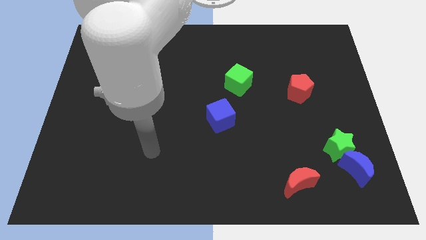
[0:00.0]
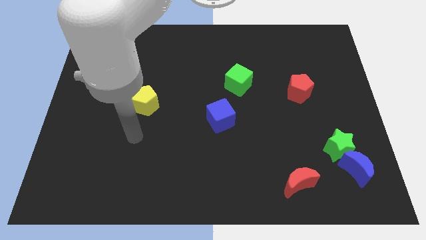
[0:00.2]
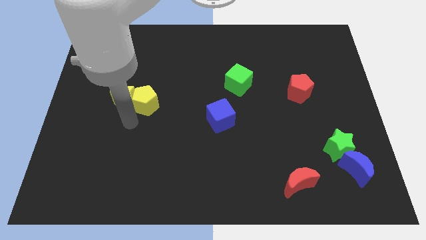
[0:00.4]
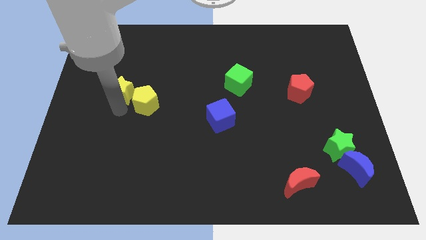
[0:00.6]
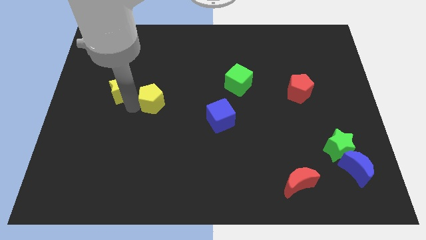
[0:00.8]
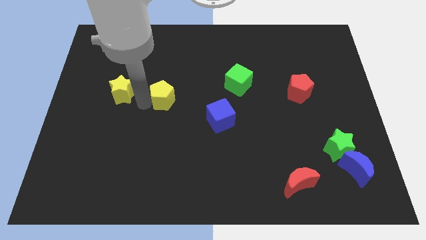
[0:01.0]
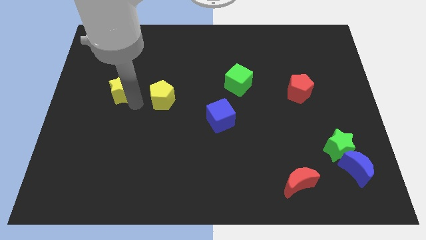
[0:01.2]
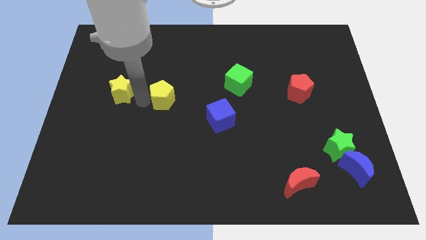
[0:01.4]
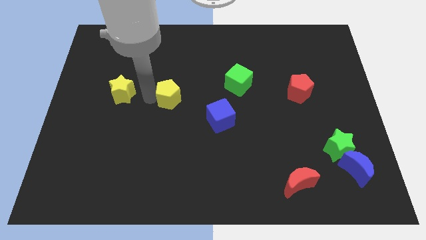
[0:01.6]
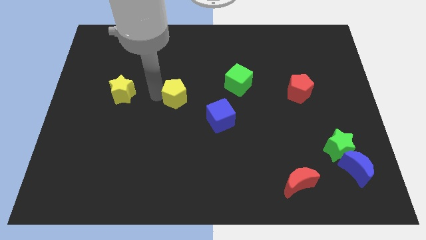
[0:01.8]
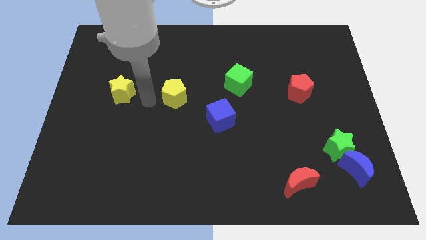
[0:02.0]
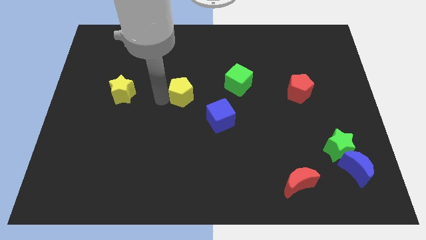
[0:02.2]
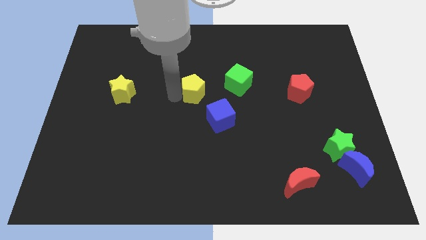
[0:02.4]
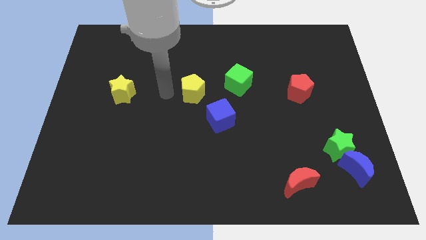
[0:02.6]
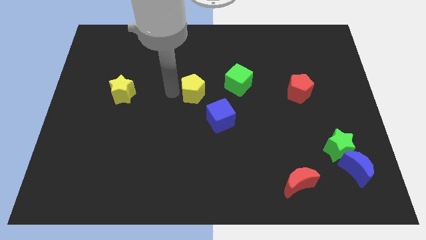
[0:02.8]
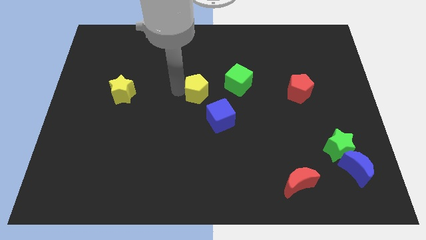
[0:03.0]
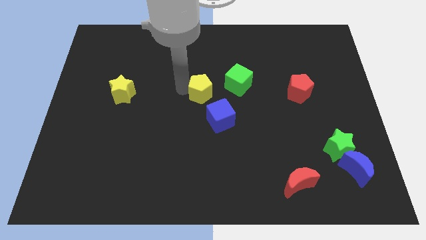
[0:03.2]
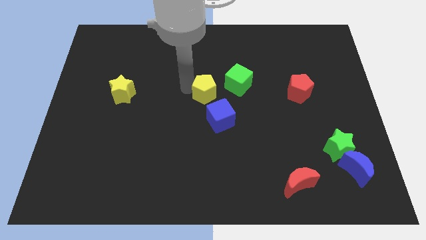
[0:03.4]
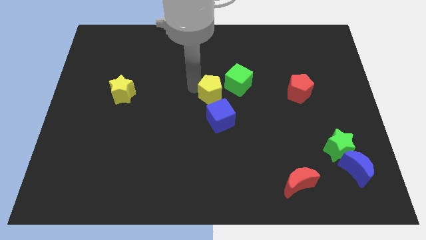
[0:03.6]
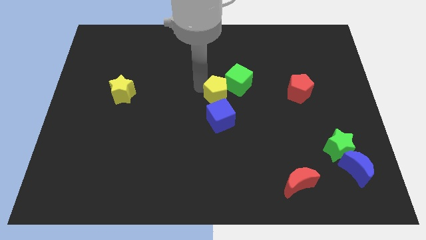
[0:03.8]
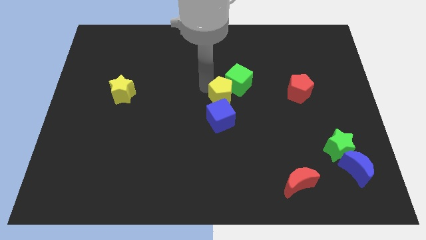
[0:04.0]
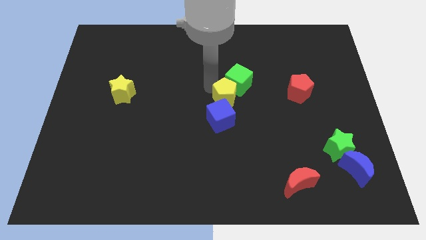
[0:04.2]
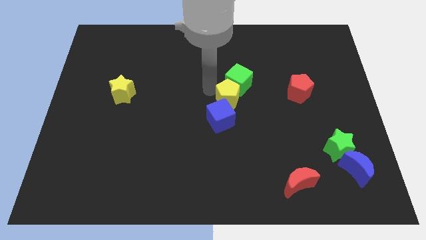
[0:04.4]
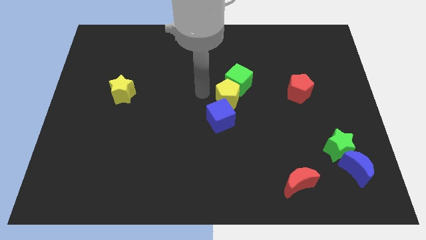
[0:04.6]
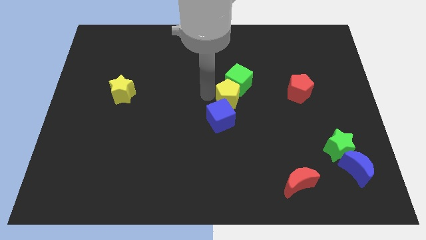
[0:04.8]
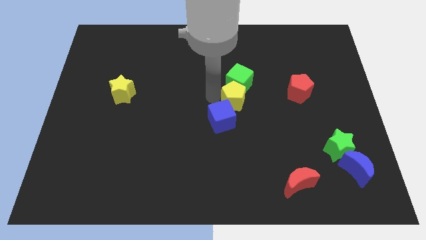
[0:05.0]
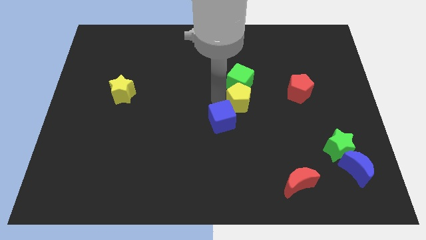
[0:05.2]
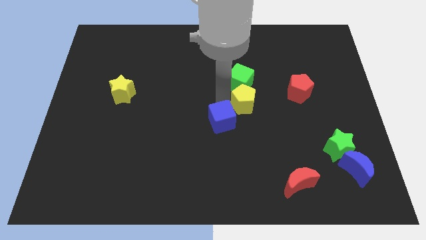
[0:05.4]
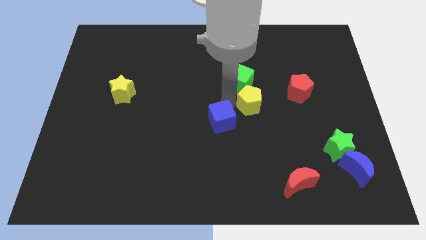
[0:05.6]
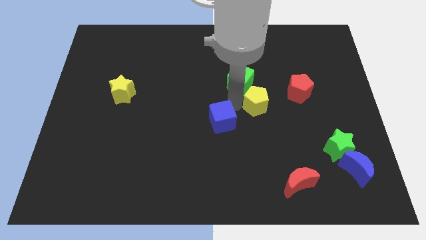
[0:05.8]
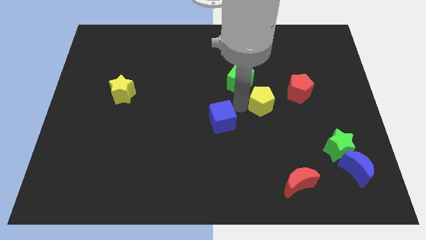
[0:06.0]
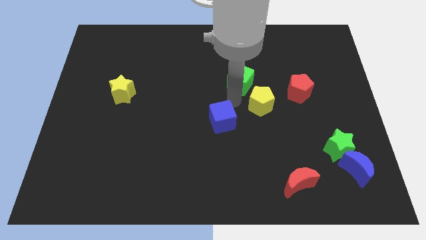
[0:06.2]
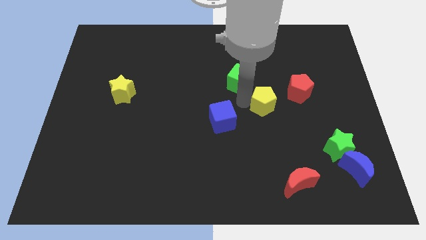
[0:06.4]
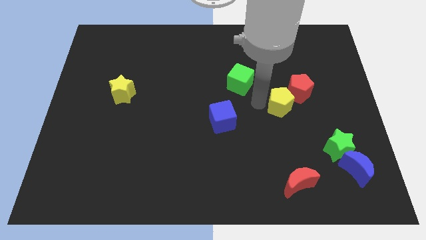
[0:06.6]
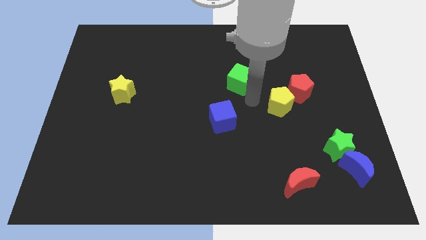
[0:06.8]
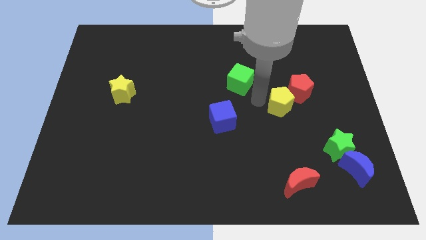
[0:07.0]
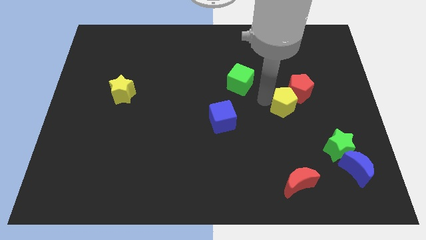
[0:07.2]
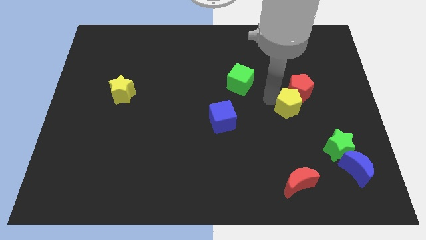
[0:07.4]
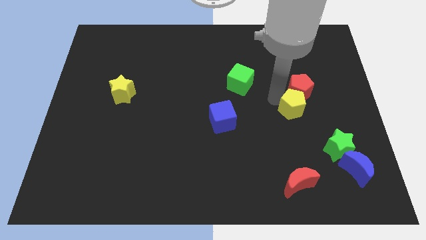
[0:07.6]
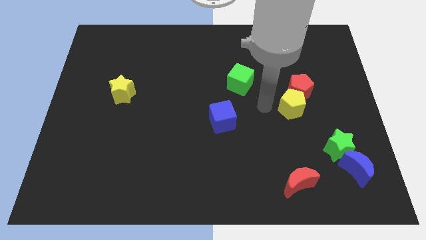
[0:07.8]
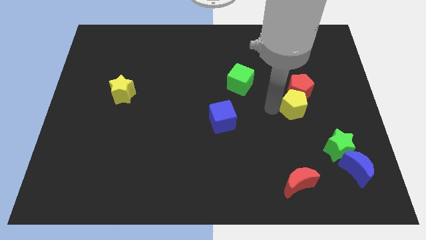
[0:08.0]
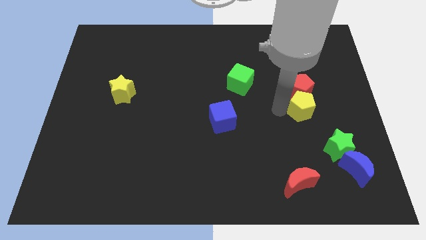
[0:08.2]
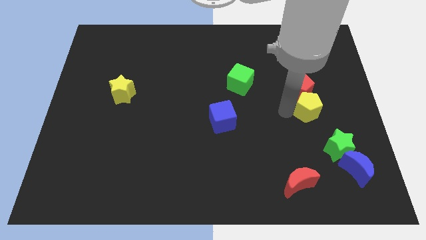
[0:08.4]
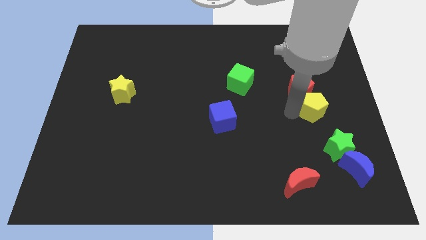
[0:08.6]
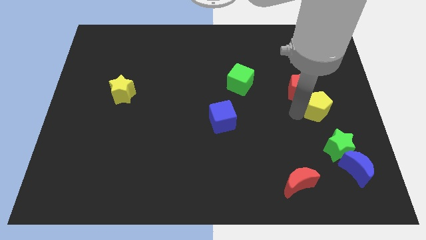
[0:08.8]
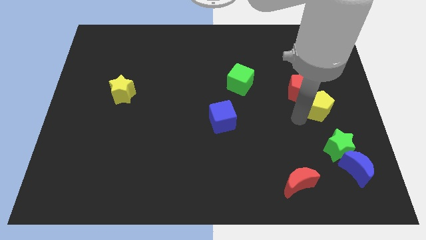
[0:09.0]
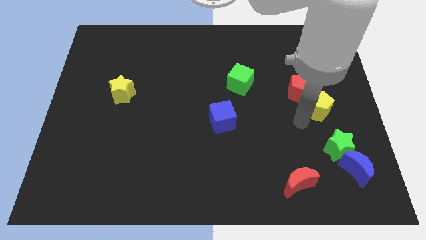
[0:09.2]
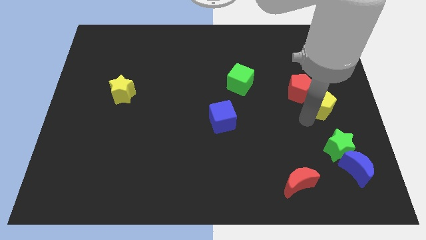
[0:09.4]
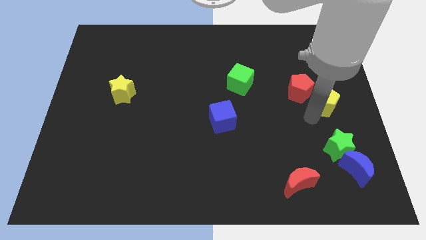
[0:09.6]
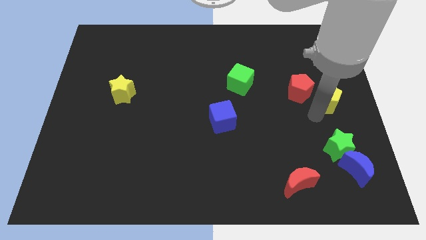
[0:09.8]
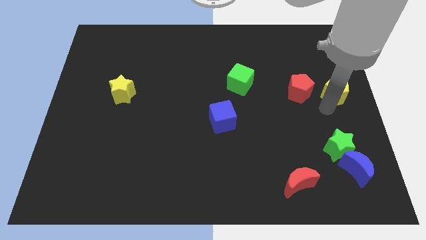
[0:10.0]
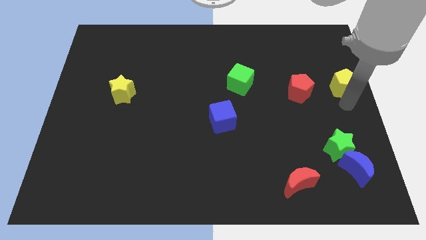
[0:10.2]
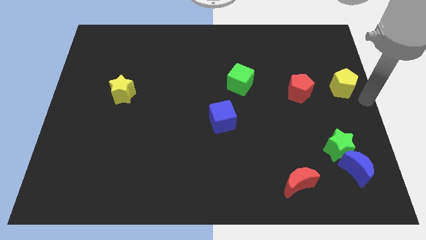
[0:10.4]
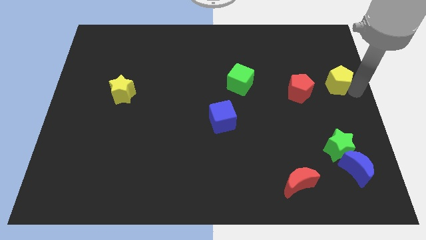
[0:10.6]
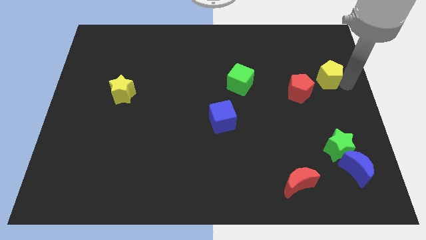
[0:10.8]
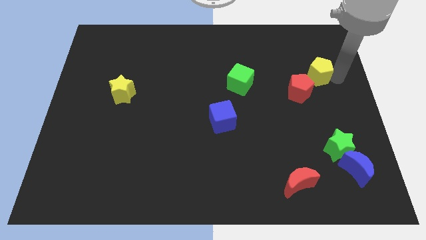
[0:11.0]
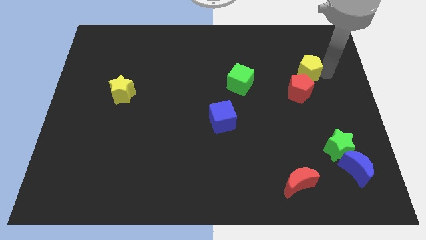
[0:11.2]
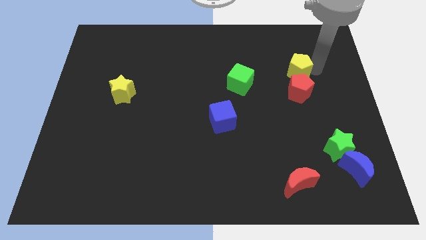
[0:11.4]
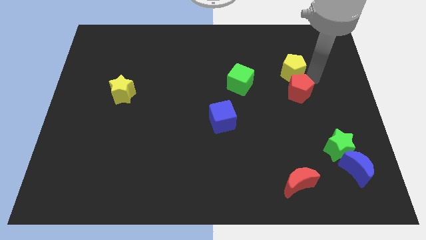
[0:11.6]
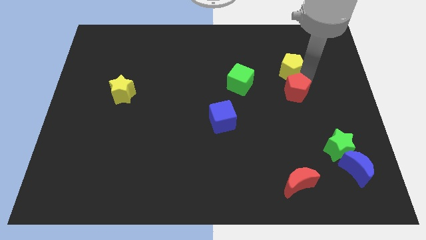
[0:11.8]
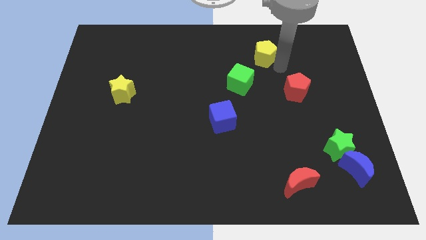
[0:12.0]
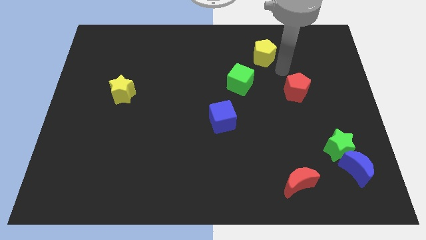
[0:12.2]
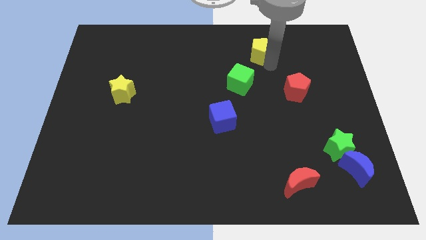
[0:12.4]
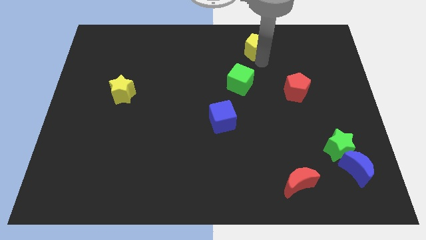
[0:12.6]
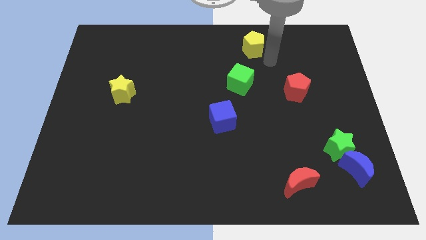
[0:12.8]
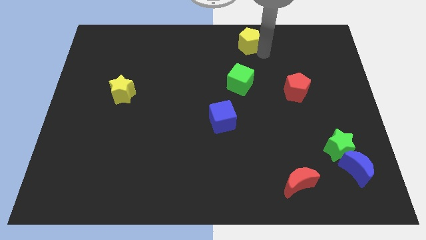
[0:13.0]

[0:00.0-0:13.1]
move the yellow pentagon to the top side
